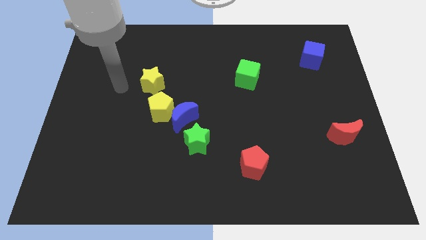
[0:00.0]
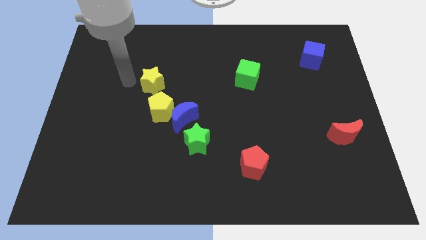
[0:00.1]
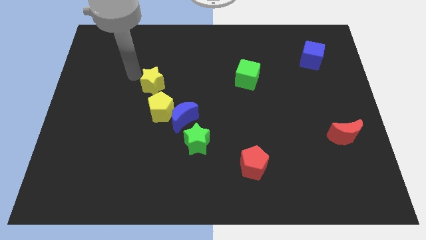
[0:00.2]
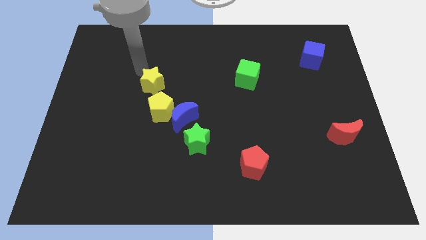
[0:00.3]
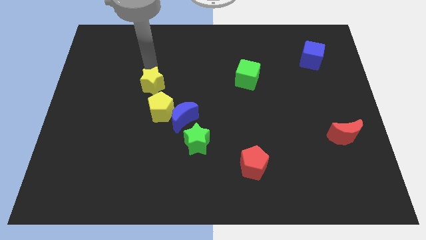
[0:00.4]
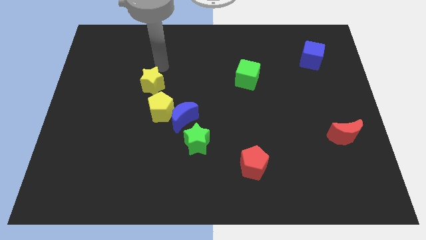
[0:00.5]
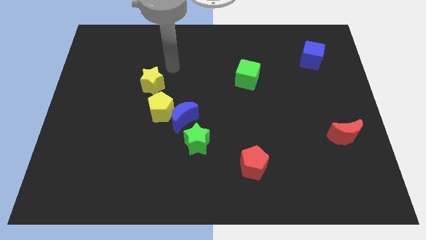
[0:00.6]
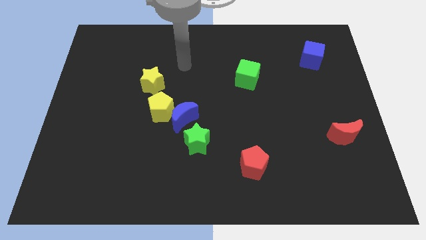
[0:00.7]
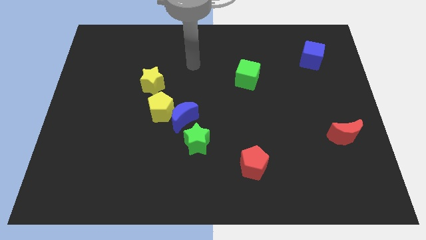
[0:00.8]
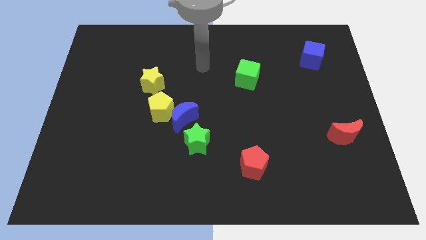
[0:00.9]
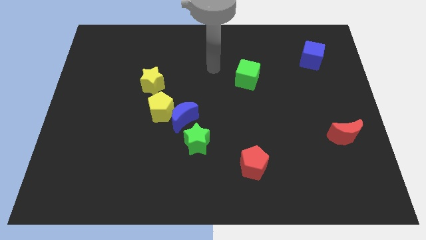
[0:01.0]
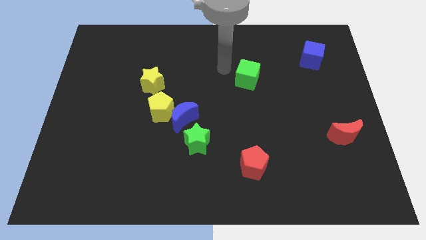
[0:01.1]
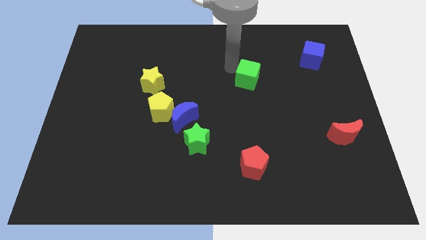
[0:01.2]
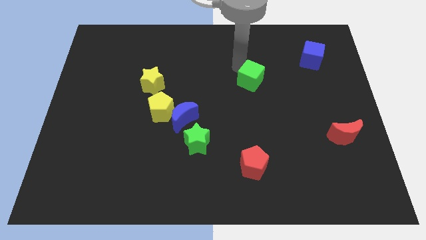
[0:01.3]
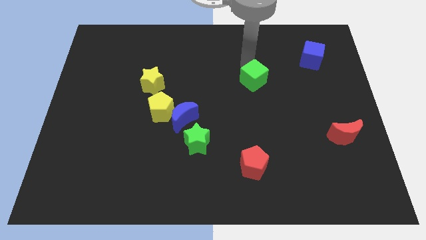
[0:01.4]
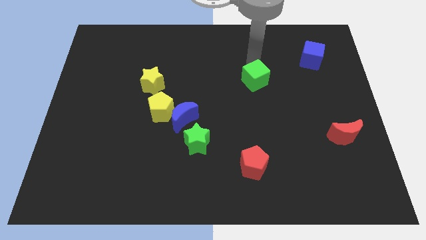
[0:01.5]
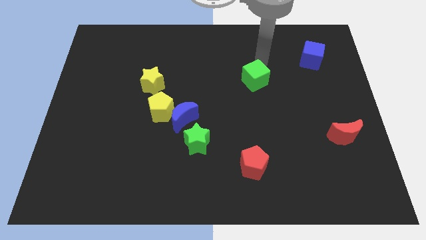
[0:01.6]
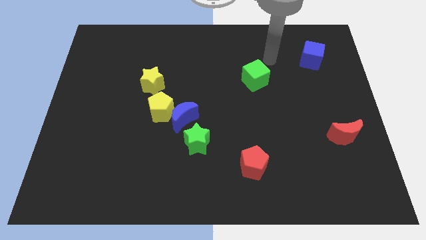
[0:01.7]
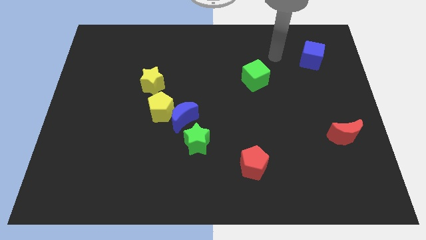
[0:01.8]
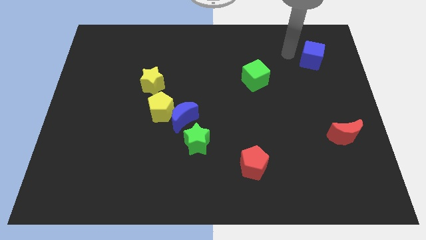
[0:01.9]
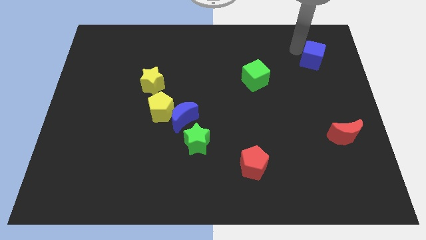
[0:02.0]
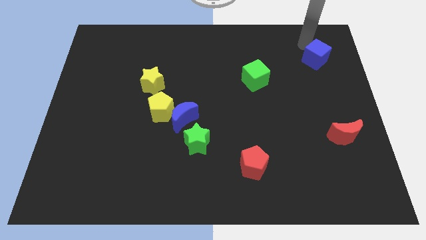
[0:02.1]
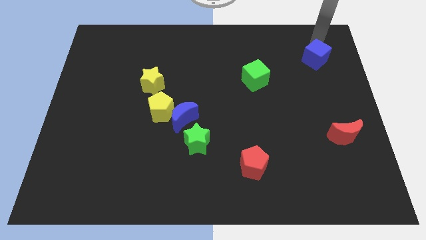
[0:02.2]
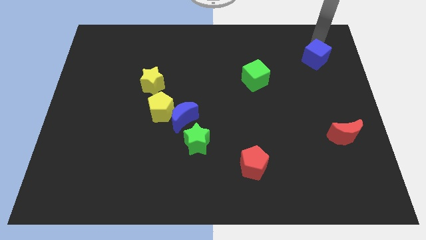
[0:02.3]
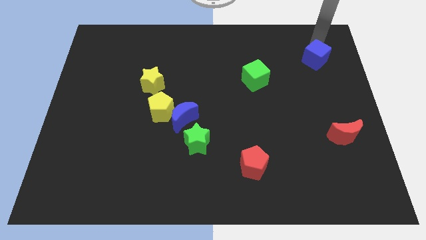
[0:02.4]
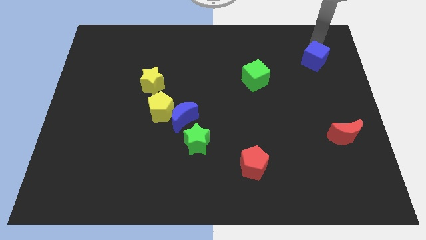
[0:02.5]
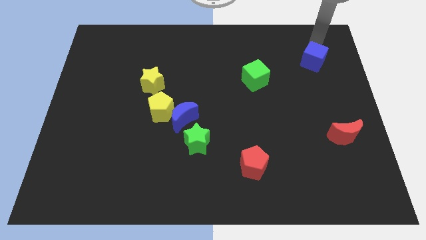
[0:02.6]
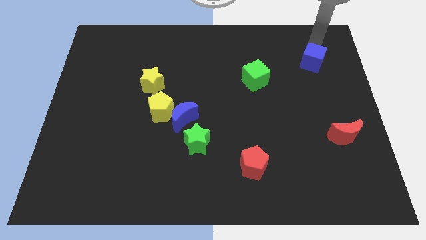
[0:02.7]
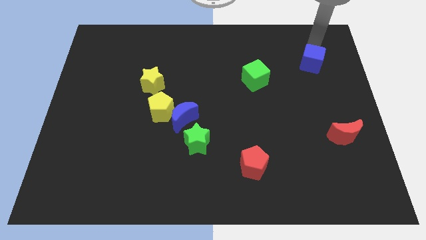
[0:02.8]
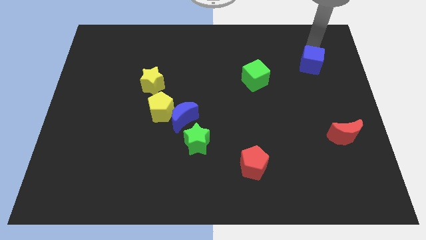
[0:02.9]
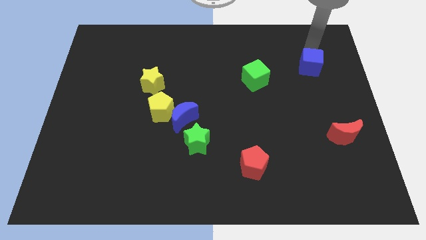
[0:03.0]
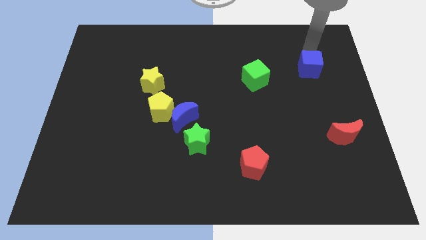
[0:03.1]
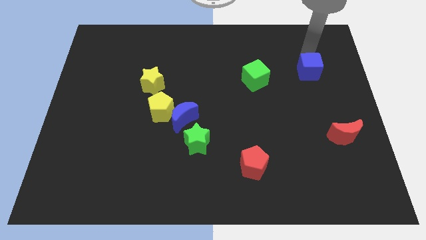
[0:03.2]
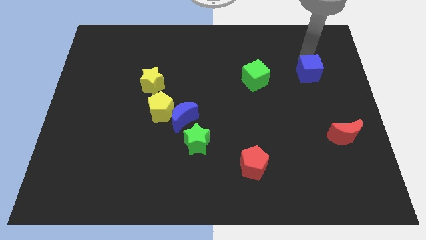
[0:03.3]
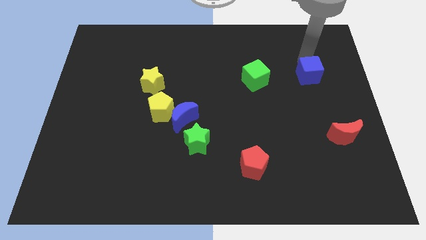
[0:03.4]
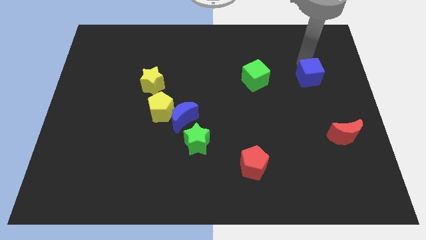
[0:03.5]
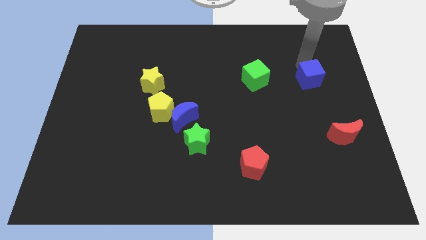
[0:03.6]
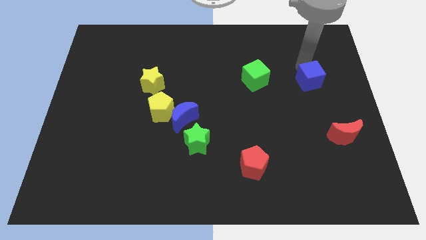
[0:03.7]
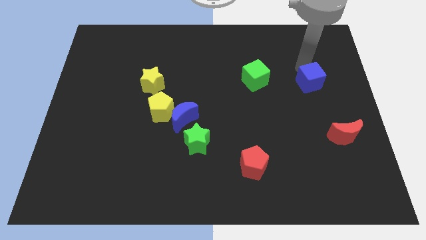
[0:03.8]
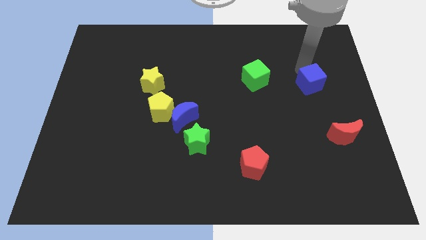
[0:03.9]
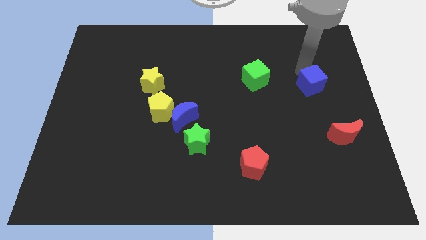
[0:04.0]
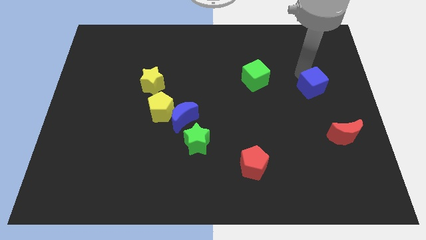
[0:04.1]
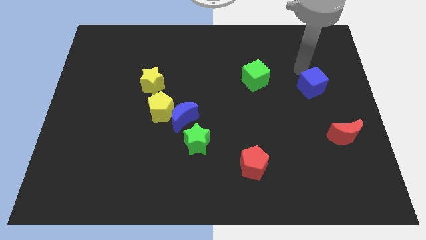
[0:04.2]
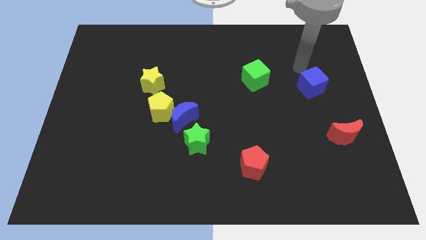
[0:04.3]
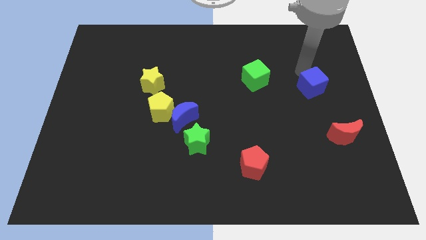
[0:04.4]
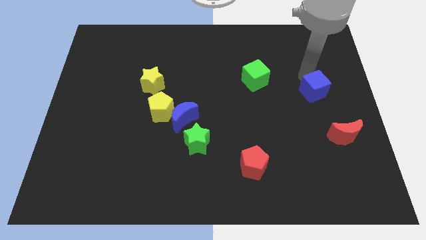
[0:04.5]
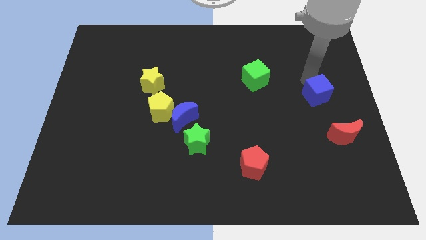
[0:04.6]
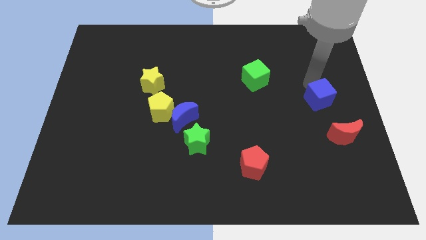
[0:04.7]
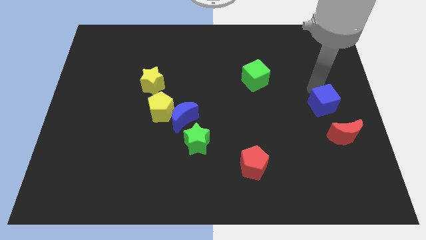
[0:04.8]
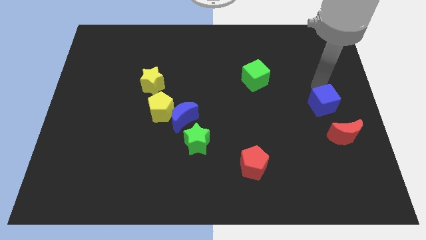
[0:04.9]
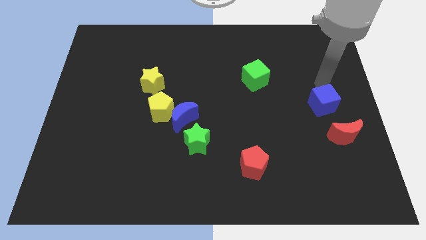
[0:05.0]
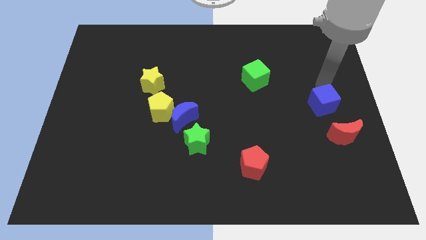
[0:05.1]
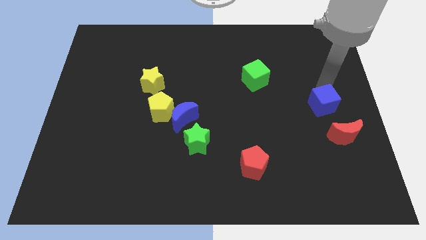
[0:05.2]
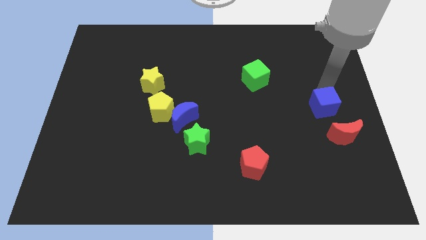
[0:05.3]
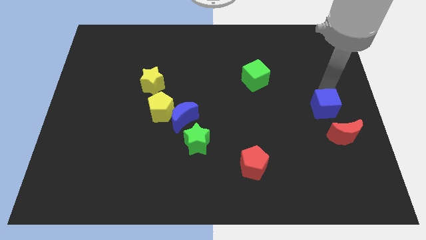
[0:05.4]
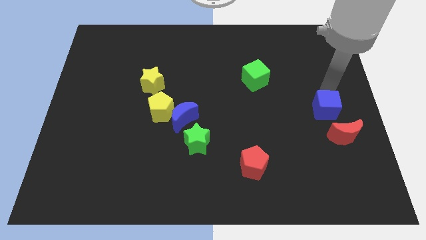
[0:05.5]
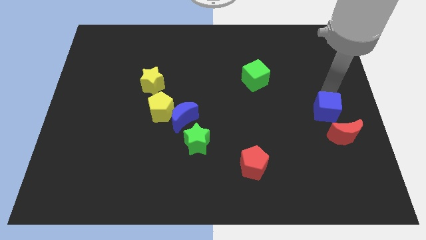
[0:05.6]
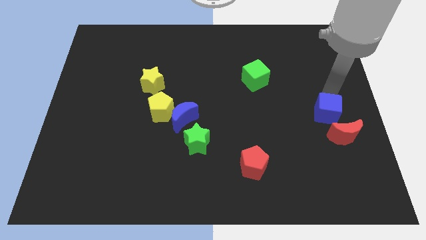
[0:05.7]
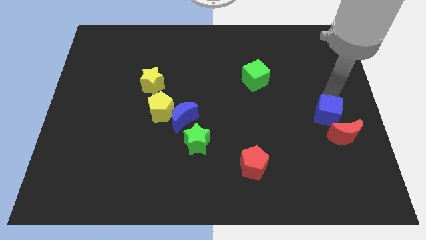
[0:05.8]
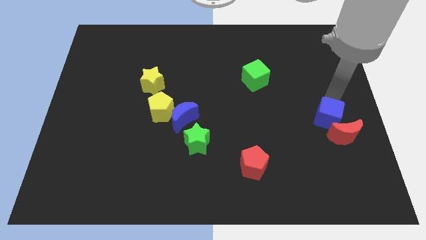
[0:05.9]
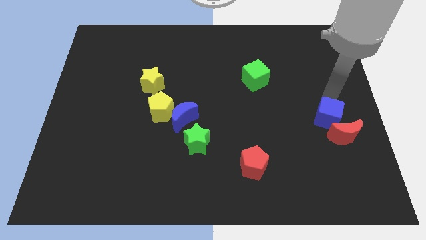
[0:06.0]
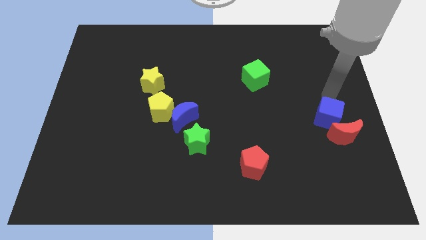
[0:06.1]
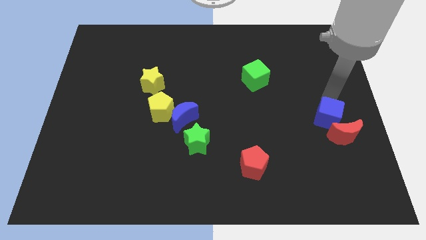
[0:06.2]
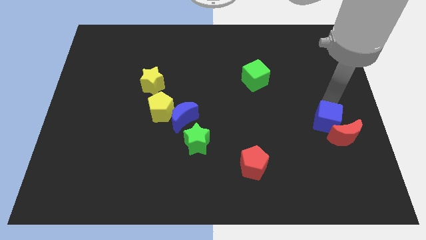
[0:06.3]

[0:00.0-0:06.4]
slide the blue cube down

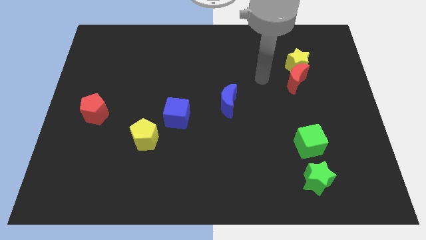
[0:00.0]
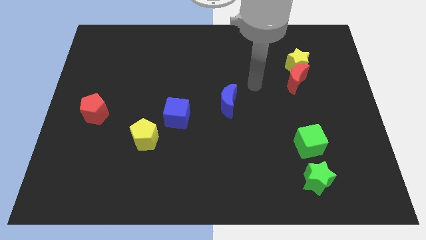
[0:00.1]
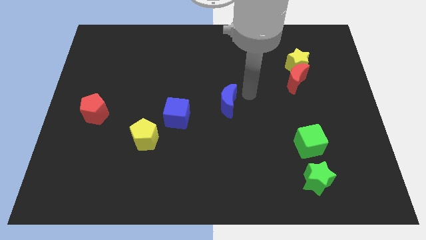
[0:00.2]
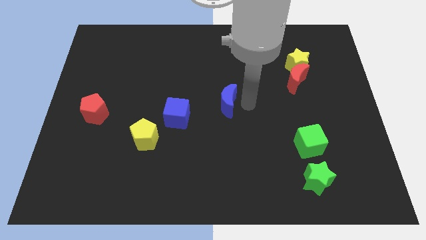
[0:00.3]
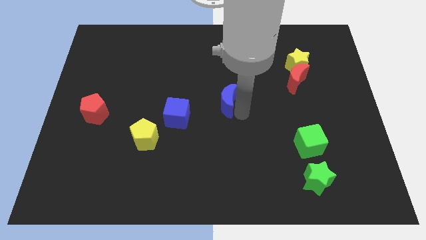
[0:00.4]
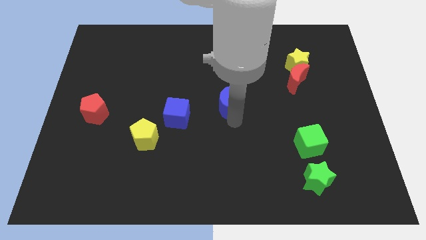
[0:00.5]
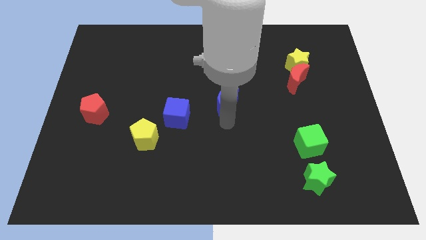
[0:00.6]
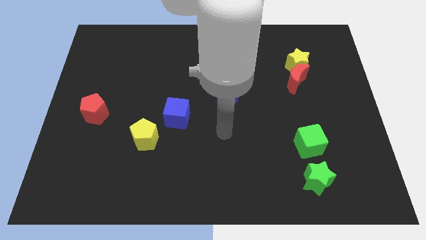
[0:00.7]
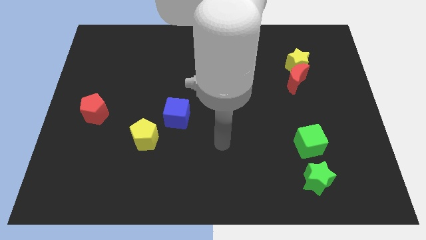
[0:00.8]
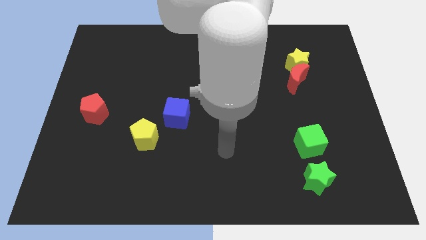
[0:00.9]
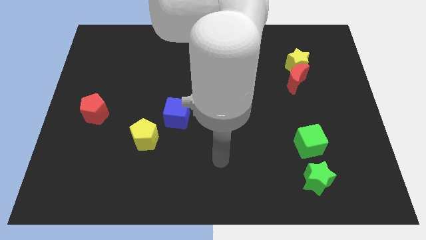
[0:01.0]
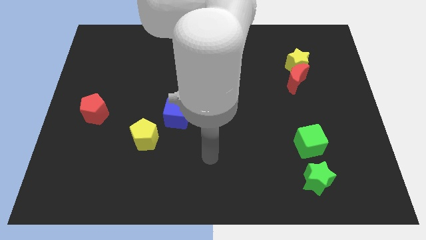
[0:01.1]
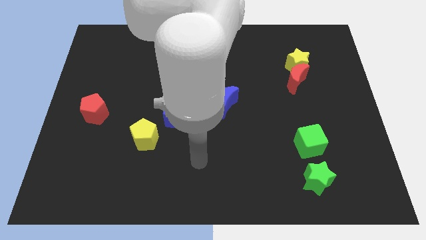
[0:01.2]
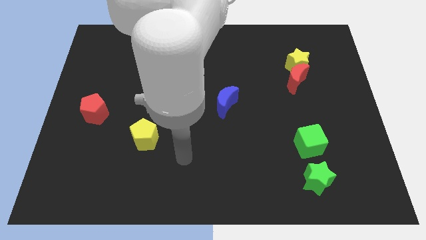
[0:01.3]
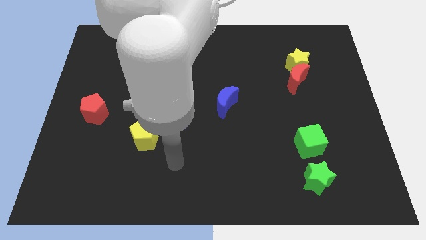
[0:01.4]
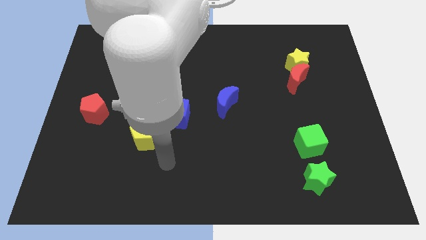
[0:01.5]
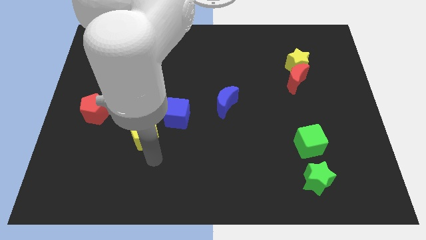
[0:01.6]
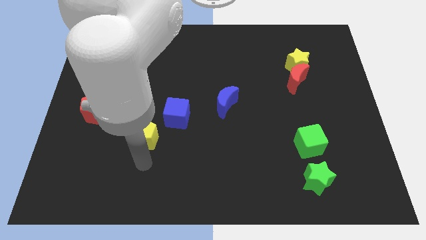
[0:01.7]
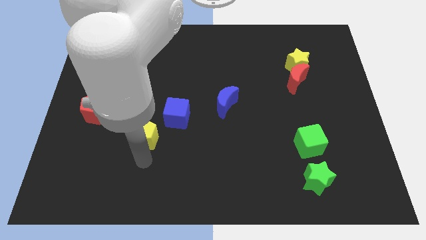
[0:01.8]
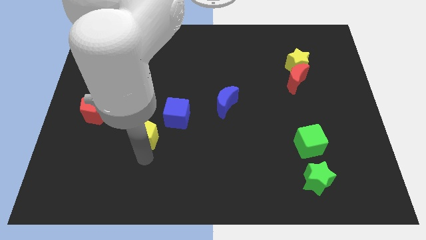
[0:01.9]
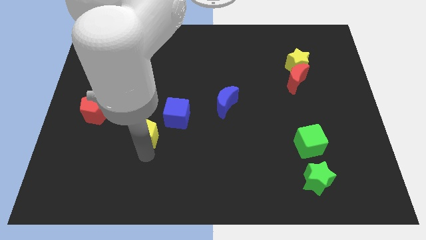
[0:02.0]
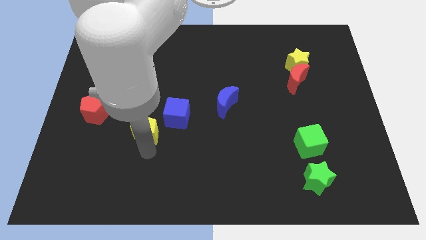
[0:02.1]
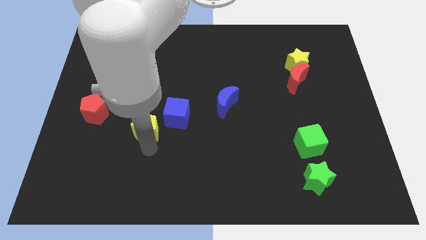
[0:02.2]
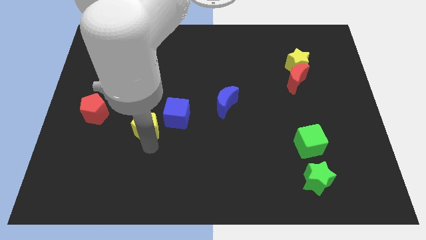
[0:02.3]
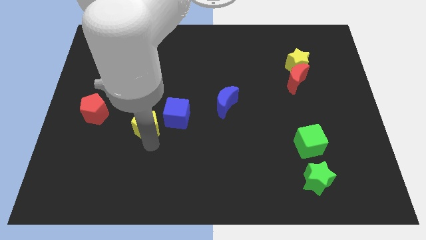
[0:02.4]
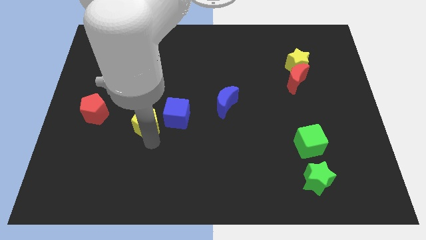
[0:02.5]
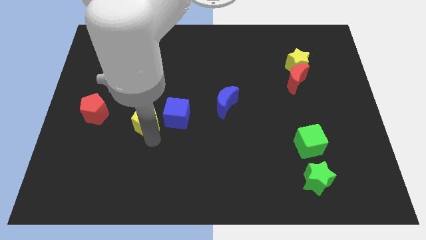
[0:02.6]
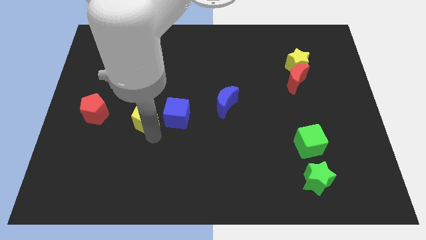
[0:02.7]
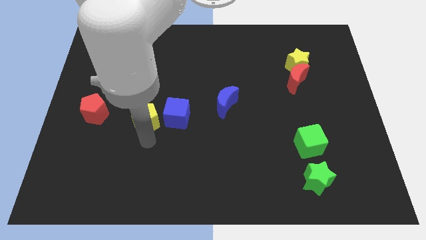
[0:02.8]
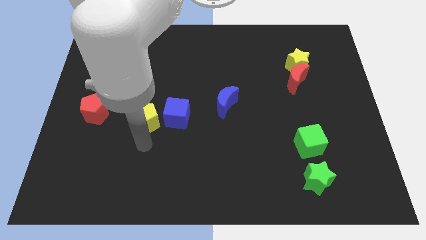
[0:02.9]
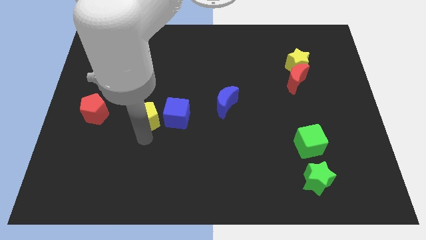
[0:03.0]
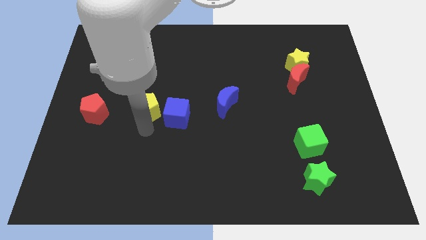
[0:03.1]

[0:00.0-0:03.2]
slightly push the yellow pentagon up
